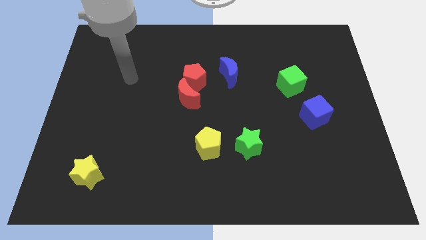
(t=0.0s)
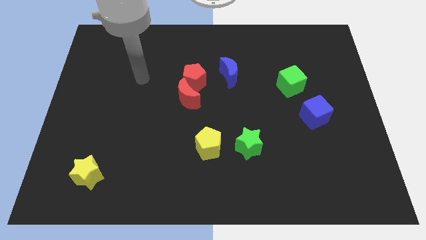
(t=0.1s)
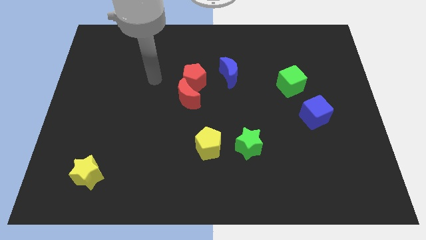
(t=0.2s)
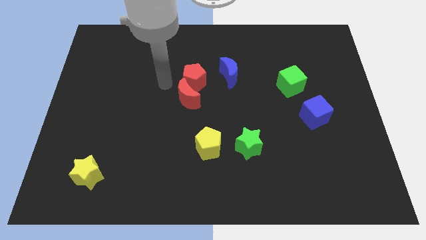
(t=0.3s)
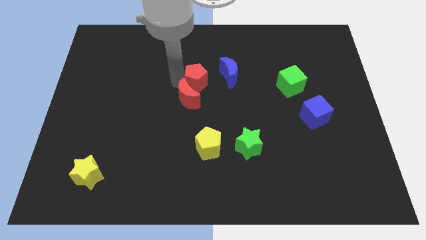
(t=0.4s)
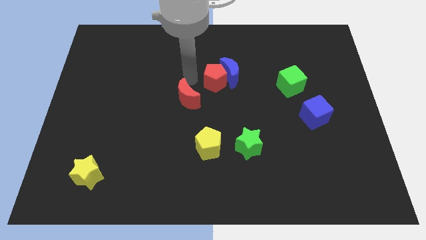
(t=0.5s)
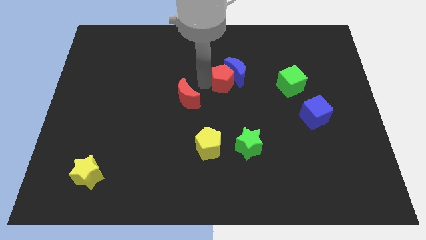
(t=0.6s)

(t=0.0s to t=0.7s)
pull the red moon apart from the red pentagon

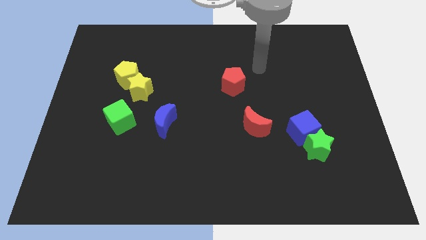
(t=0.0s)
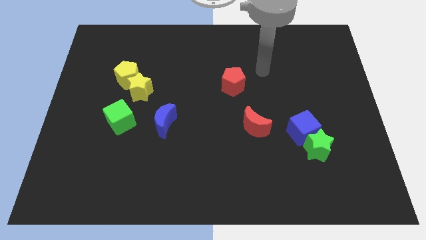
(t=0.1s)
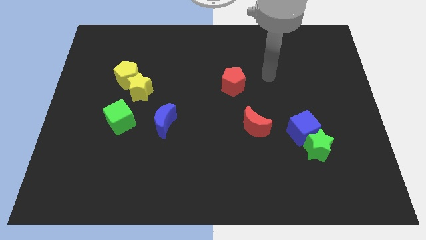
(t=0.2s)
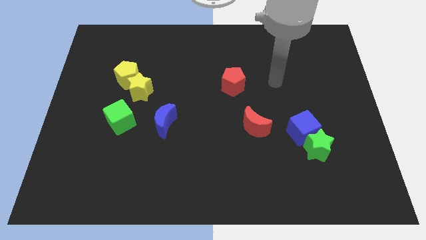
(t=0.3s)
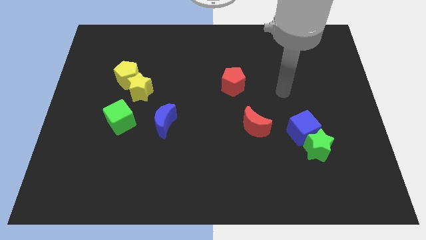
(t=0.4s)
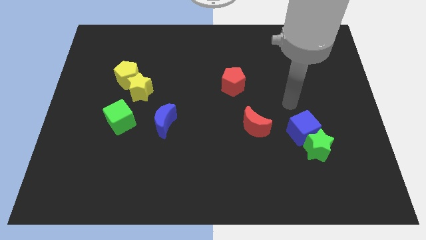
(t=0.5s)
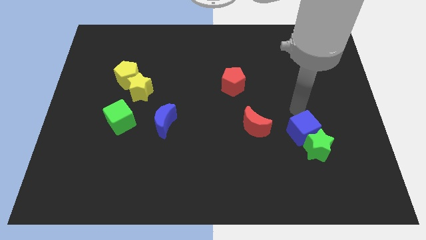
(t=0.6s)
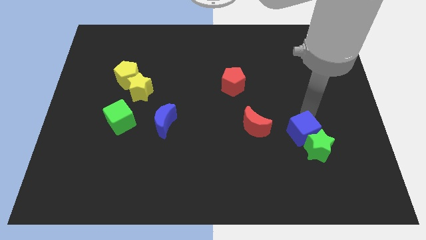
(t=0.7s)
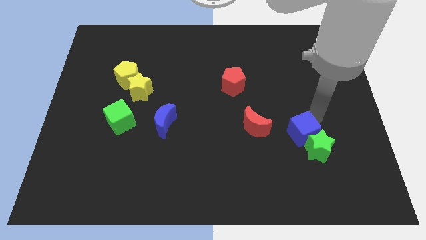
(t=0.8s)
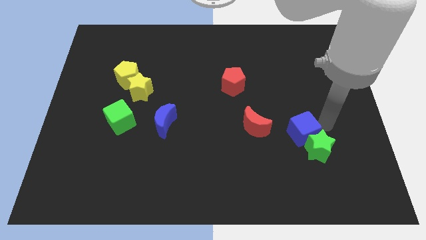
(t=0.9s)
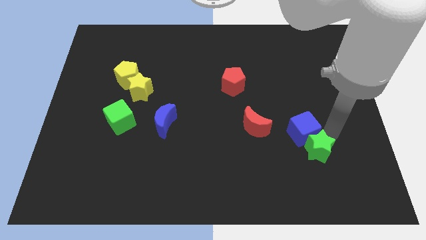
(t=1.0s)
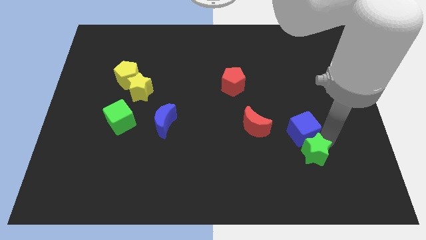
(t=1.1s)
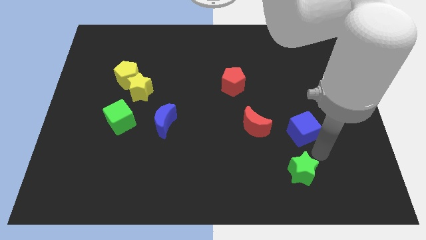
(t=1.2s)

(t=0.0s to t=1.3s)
move the blue cube away from the green star

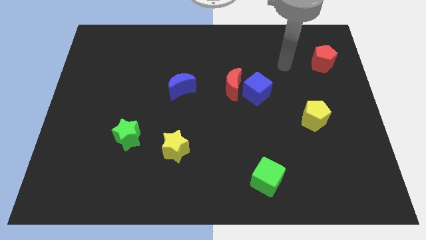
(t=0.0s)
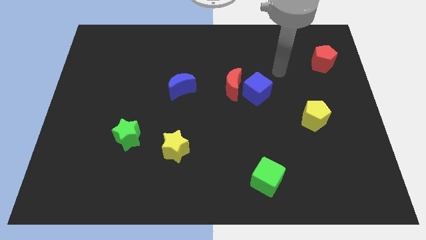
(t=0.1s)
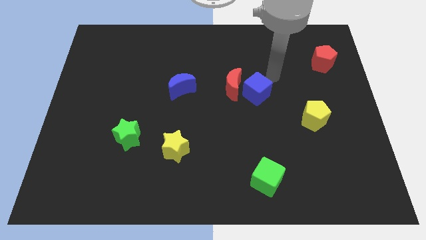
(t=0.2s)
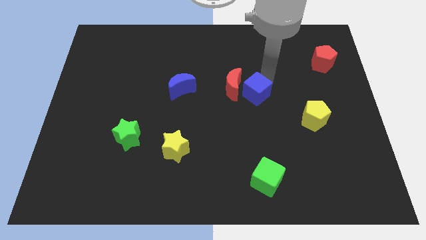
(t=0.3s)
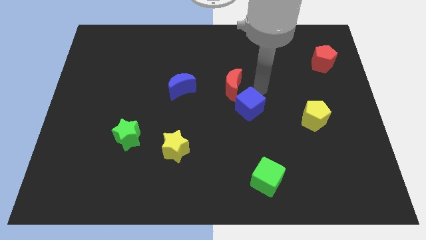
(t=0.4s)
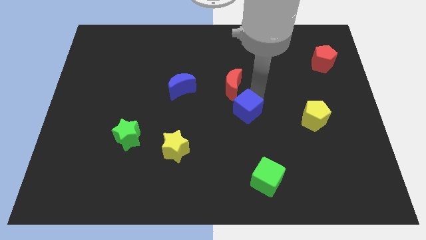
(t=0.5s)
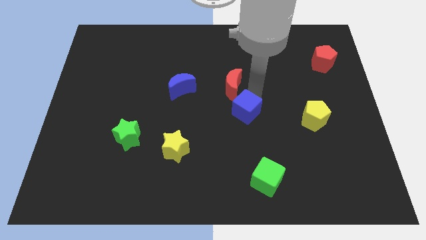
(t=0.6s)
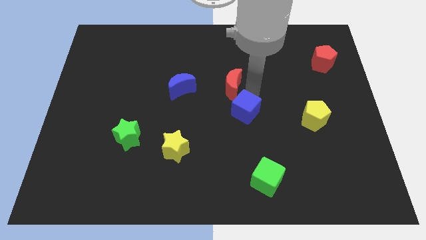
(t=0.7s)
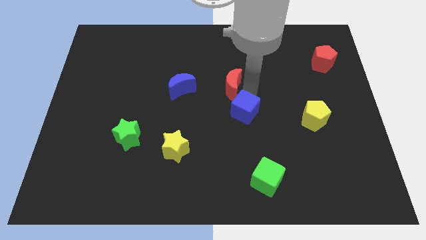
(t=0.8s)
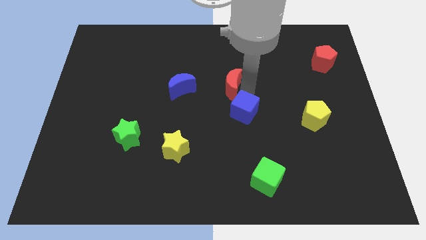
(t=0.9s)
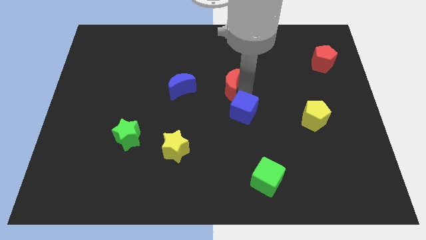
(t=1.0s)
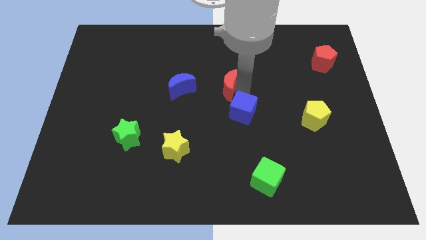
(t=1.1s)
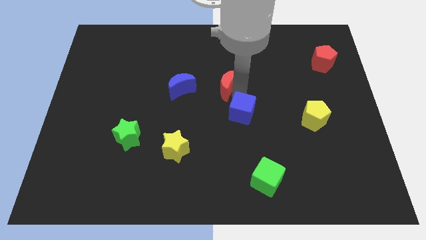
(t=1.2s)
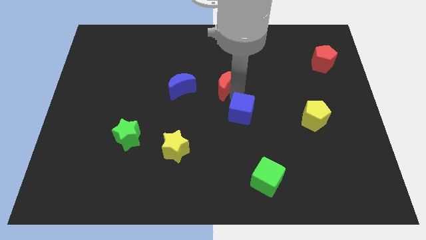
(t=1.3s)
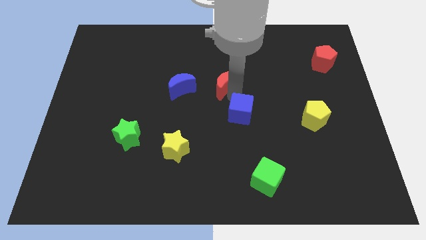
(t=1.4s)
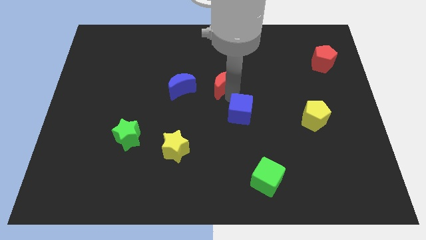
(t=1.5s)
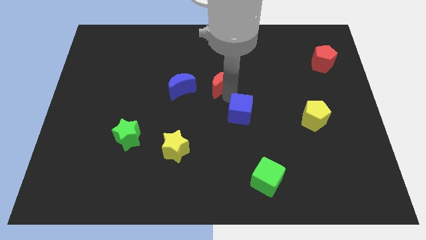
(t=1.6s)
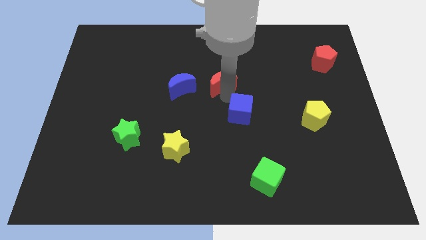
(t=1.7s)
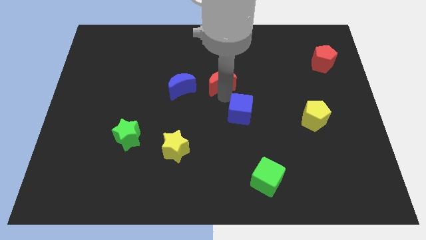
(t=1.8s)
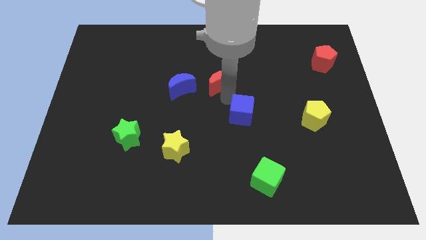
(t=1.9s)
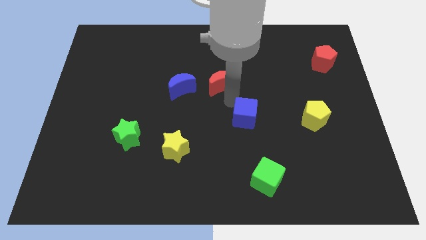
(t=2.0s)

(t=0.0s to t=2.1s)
separate the red moon from the blue cube

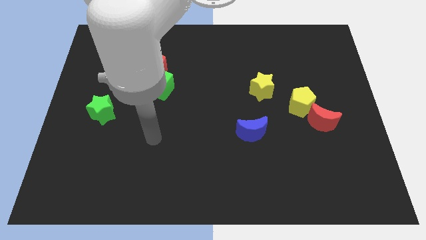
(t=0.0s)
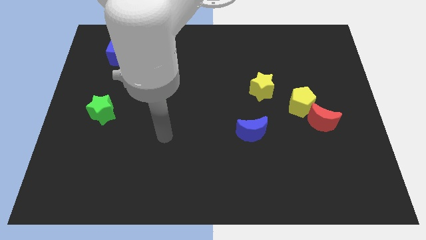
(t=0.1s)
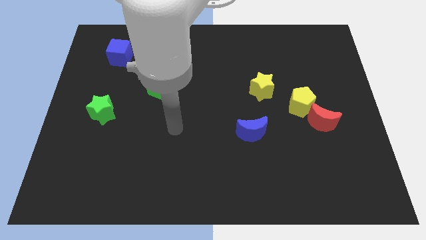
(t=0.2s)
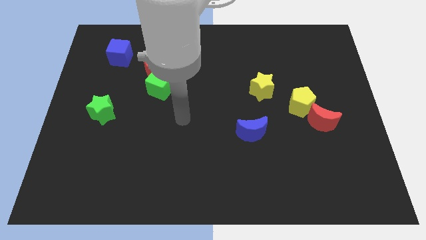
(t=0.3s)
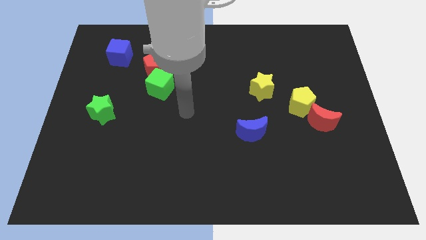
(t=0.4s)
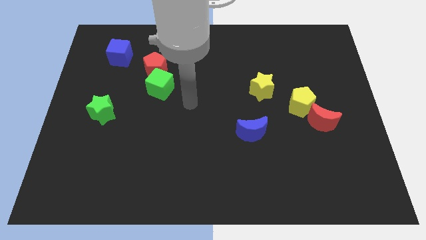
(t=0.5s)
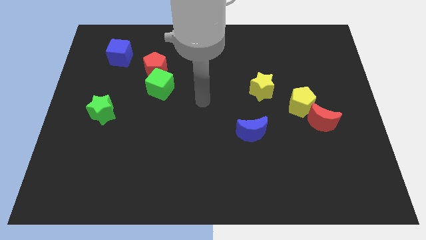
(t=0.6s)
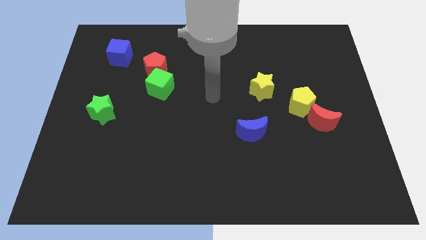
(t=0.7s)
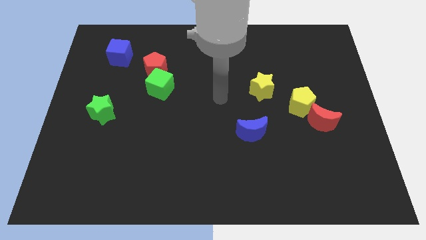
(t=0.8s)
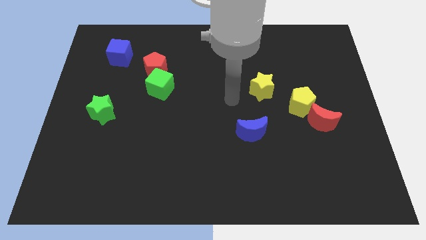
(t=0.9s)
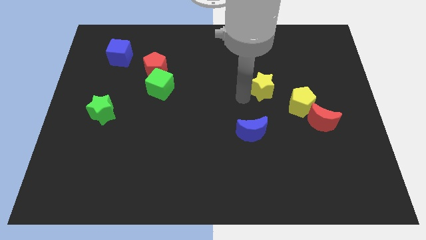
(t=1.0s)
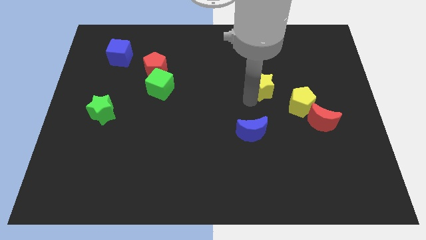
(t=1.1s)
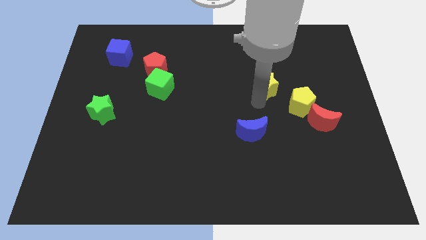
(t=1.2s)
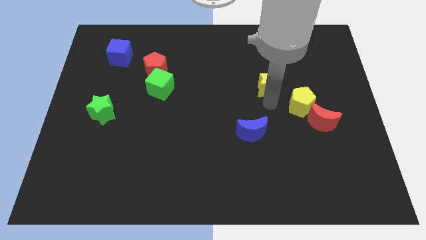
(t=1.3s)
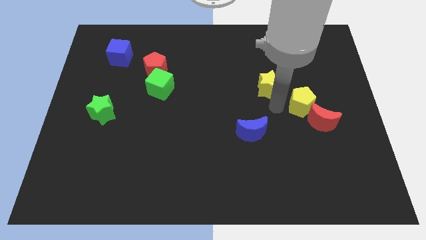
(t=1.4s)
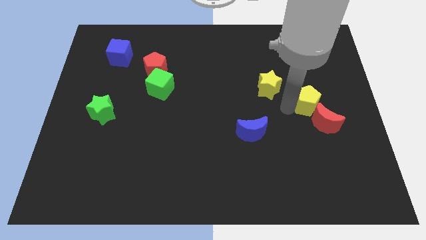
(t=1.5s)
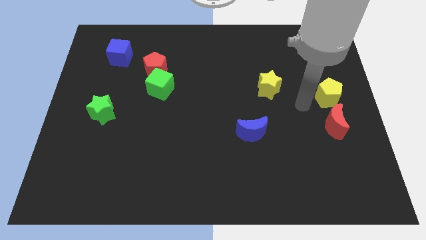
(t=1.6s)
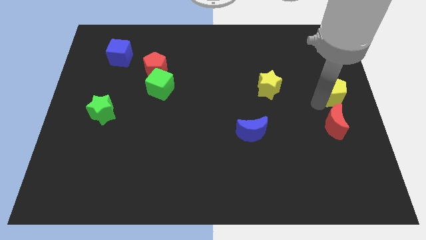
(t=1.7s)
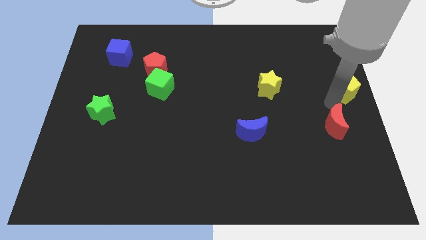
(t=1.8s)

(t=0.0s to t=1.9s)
separate the red moon from the yellow pentagon

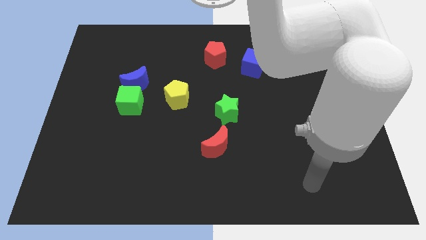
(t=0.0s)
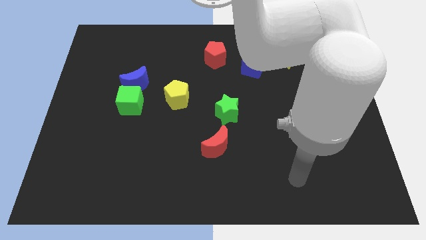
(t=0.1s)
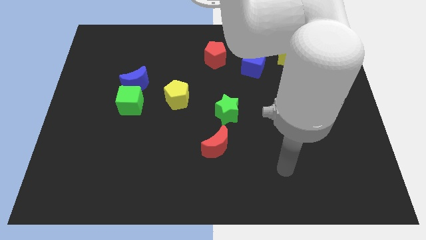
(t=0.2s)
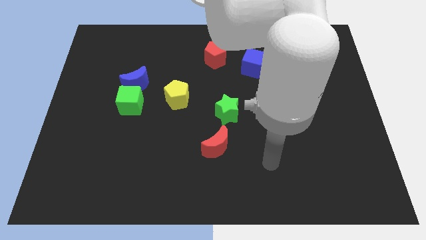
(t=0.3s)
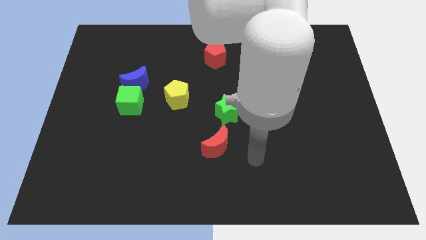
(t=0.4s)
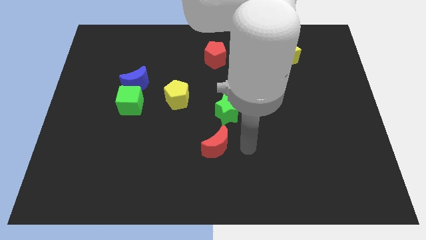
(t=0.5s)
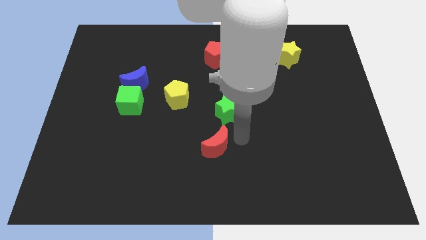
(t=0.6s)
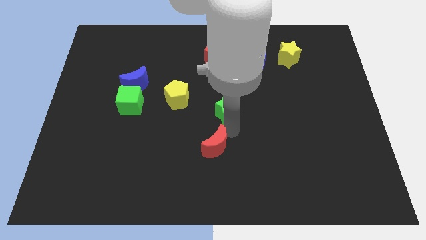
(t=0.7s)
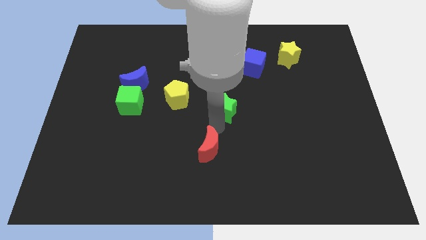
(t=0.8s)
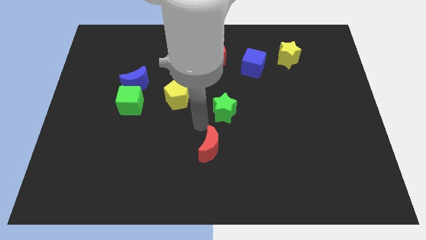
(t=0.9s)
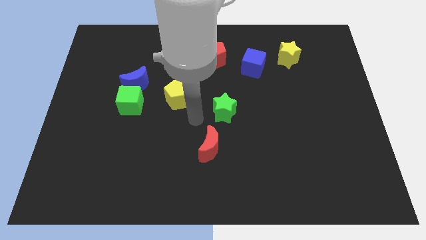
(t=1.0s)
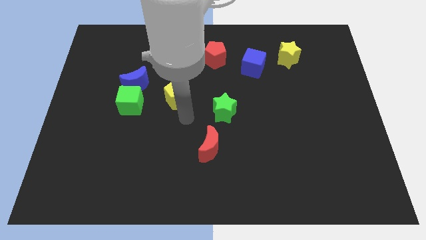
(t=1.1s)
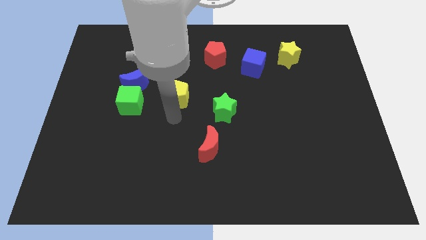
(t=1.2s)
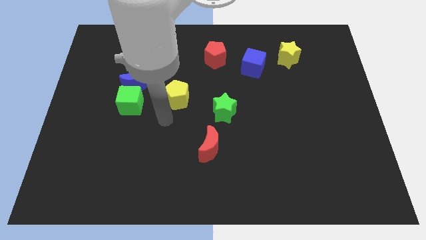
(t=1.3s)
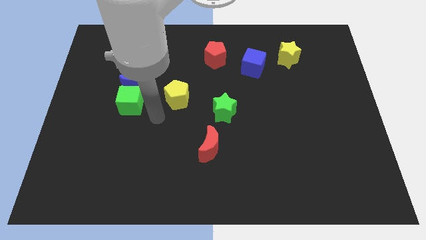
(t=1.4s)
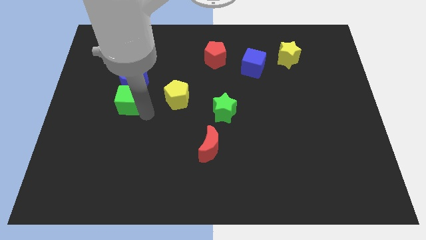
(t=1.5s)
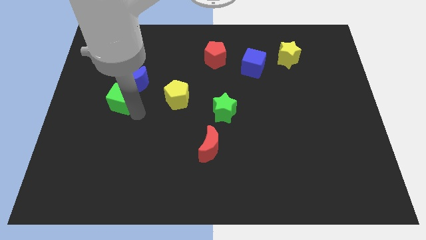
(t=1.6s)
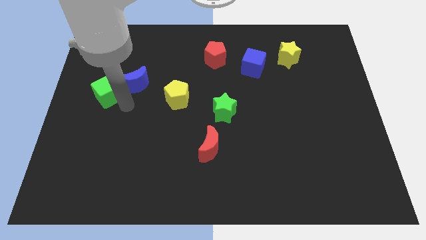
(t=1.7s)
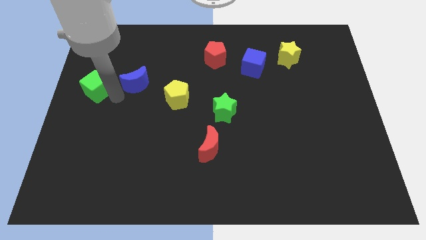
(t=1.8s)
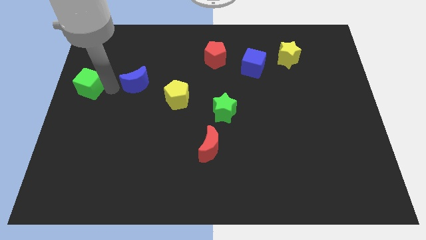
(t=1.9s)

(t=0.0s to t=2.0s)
separate the blue moon from the green cube

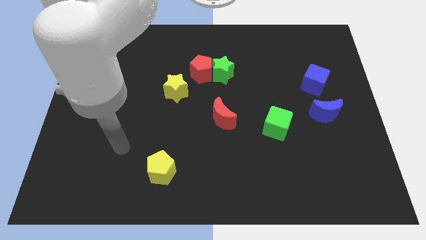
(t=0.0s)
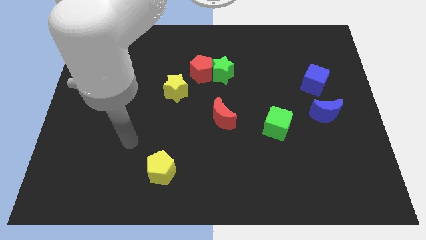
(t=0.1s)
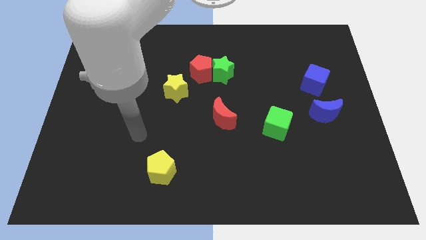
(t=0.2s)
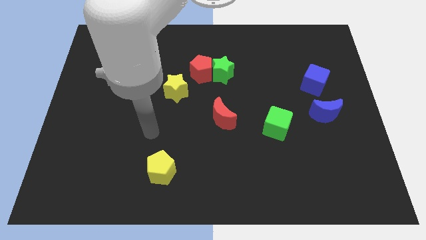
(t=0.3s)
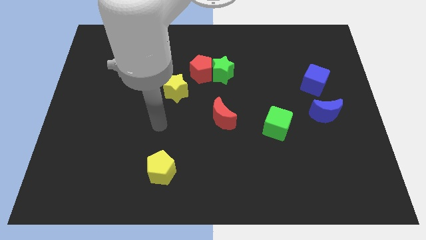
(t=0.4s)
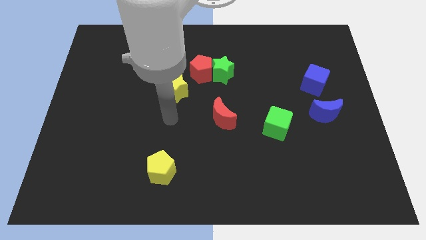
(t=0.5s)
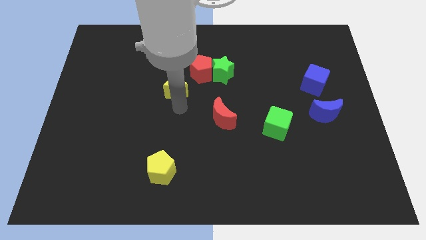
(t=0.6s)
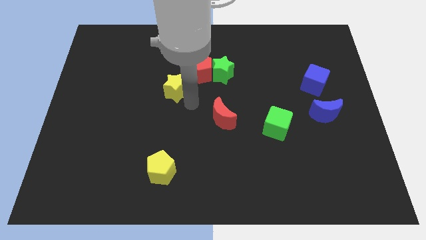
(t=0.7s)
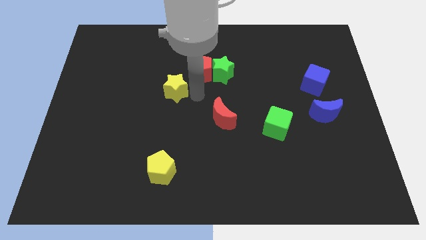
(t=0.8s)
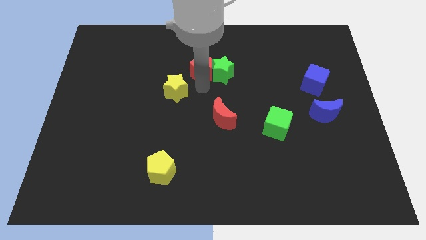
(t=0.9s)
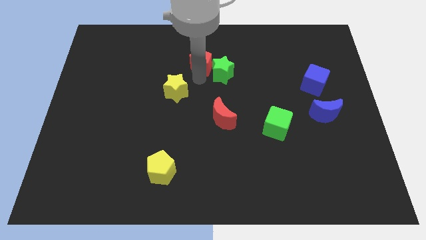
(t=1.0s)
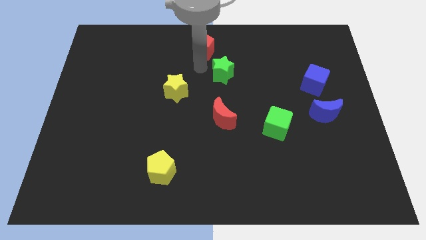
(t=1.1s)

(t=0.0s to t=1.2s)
separate the green star from the red pentagon

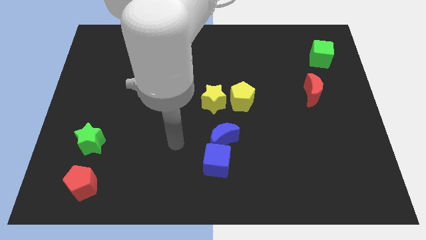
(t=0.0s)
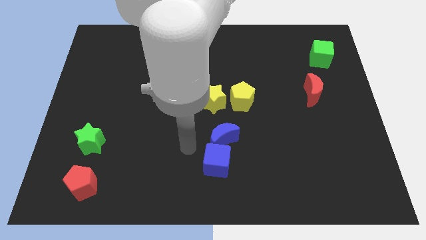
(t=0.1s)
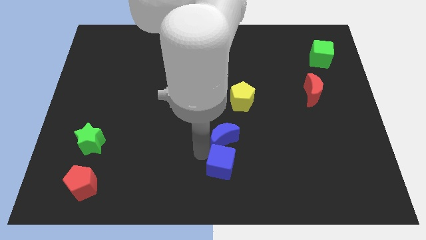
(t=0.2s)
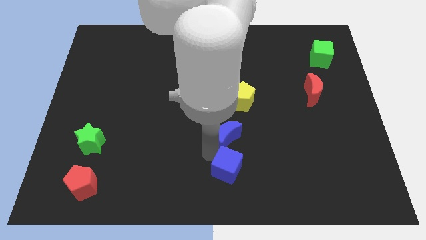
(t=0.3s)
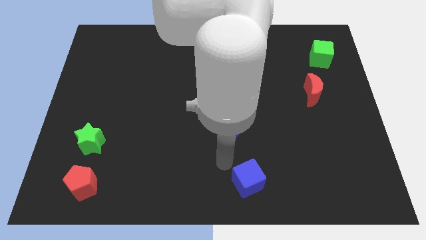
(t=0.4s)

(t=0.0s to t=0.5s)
move the blue moon away from the blue cube
